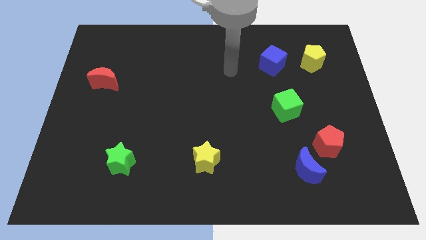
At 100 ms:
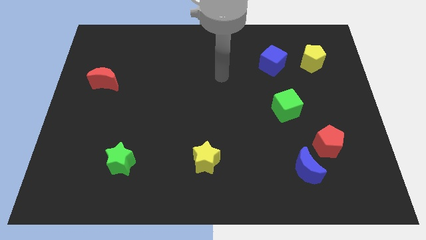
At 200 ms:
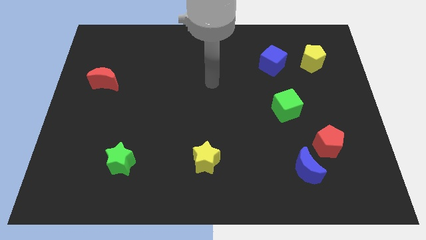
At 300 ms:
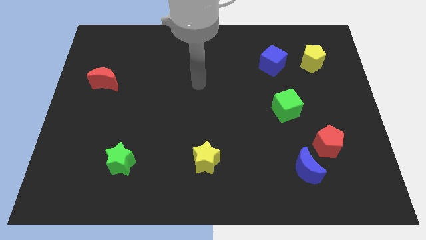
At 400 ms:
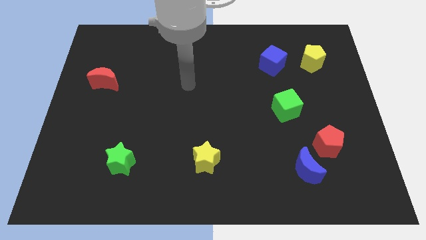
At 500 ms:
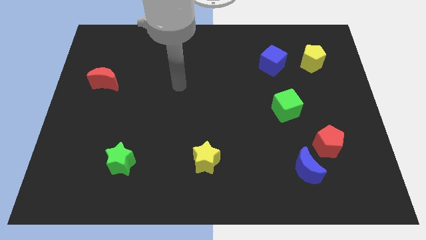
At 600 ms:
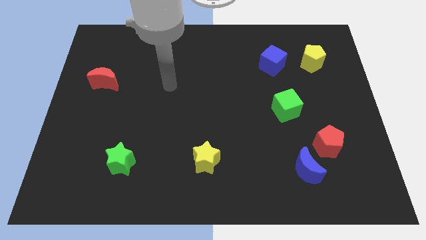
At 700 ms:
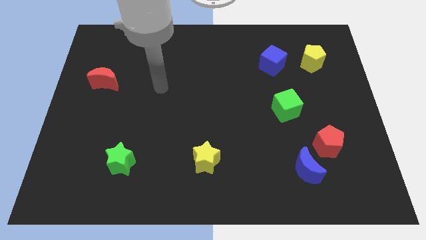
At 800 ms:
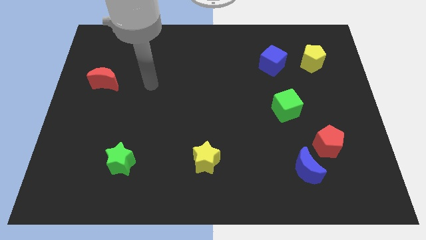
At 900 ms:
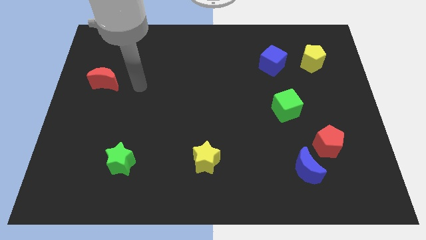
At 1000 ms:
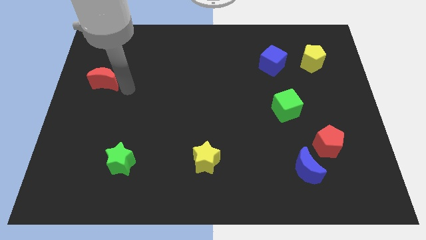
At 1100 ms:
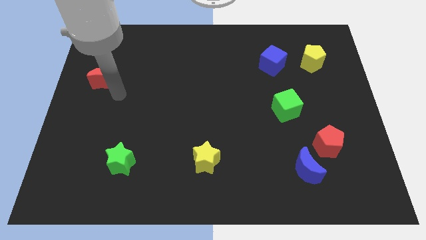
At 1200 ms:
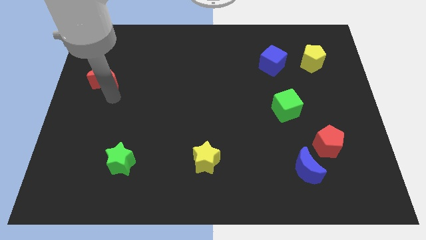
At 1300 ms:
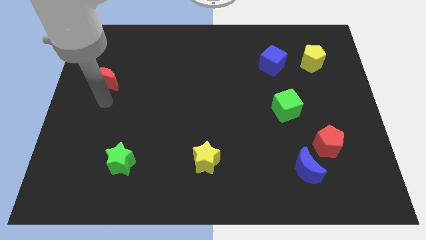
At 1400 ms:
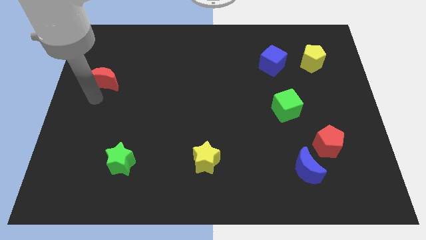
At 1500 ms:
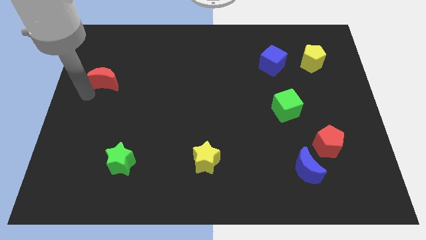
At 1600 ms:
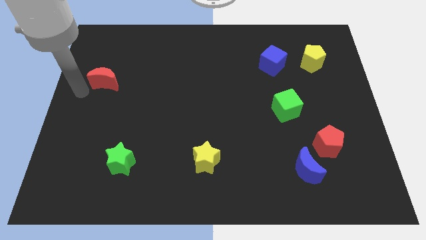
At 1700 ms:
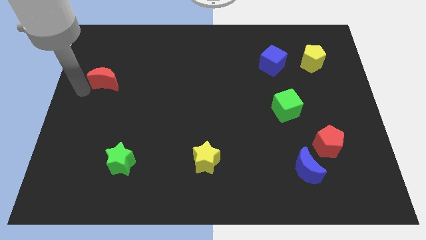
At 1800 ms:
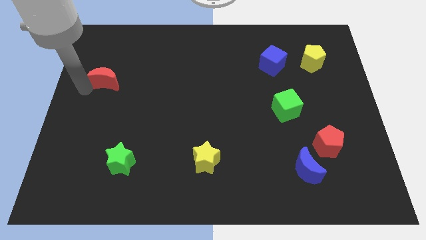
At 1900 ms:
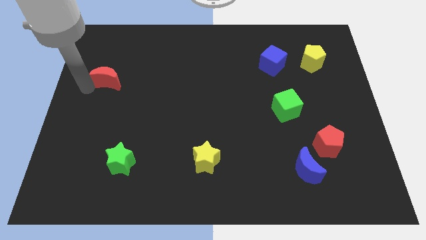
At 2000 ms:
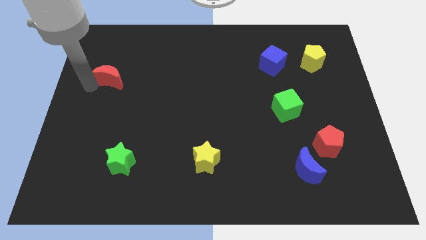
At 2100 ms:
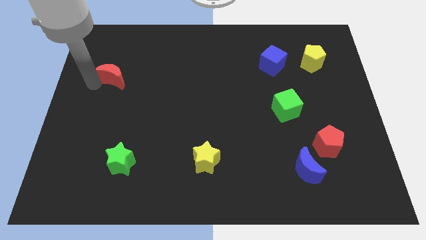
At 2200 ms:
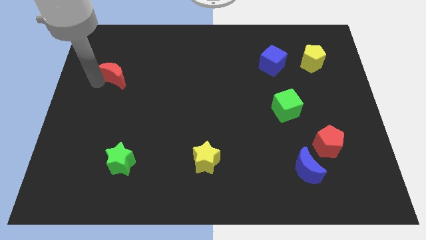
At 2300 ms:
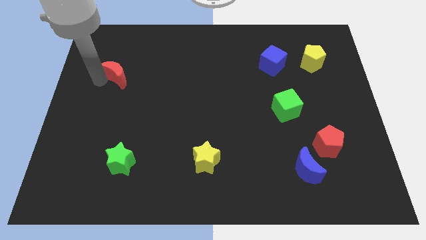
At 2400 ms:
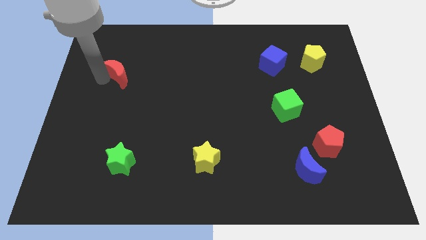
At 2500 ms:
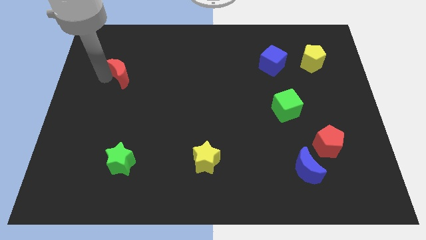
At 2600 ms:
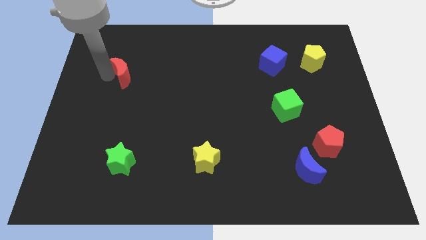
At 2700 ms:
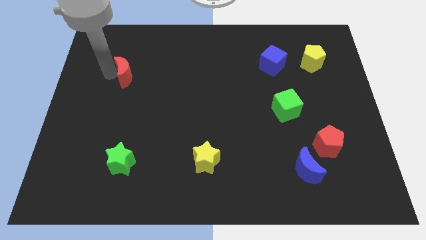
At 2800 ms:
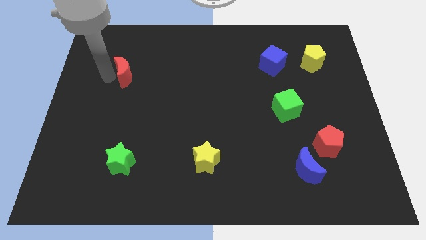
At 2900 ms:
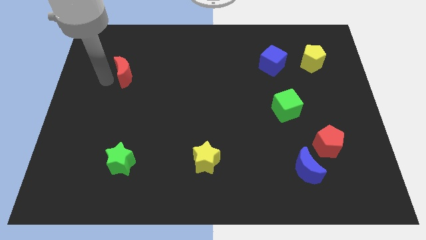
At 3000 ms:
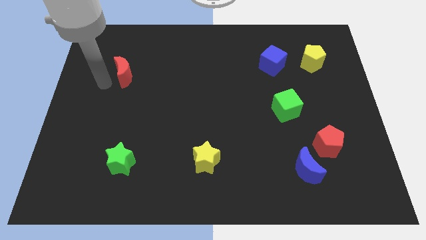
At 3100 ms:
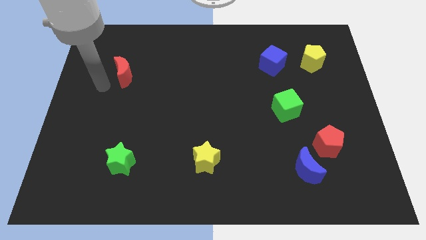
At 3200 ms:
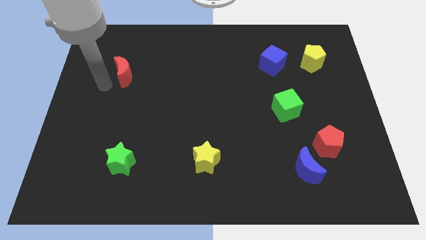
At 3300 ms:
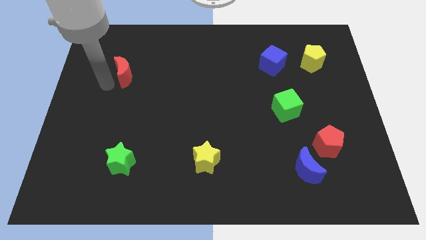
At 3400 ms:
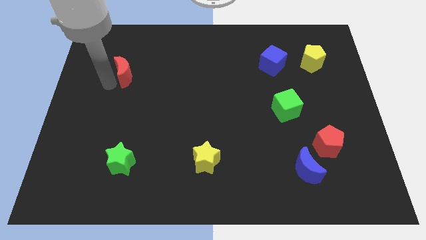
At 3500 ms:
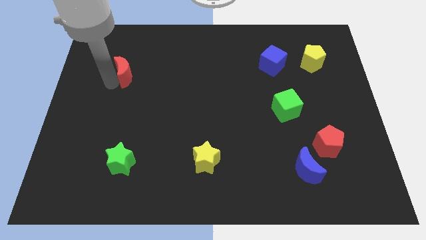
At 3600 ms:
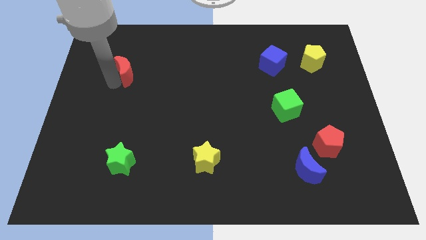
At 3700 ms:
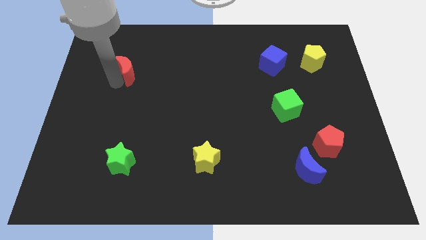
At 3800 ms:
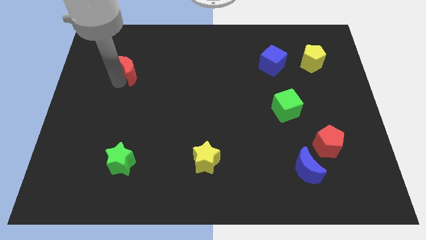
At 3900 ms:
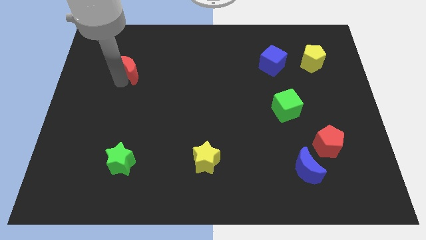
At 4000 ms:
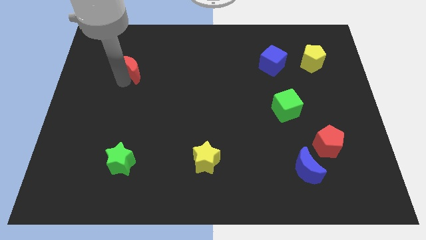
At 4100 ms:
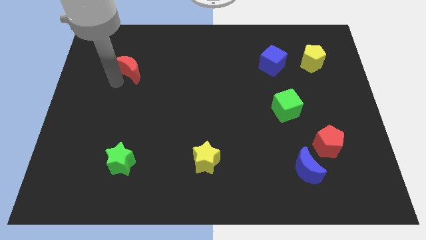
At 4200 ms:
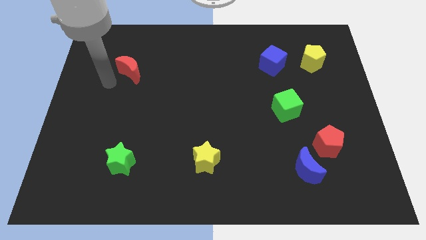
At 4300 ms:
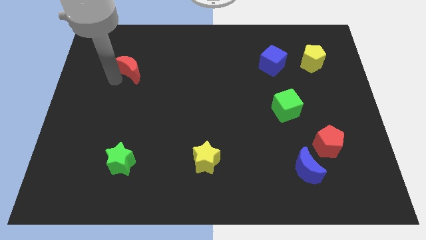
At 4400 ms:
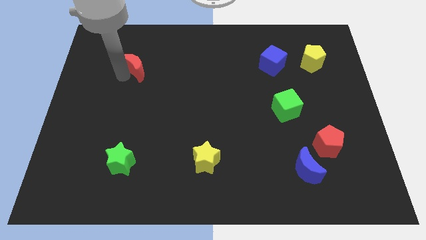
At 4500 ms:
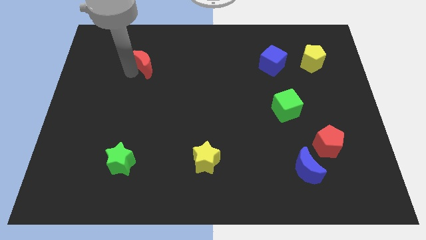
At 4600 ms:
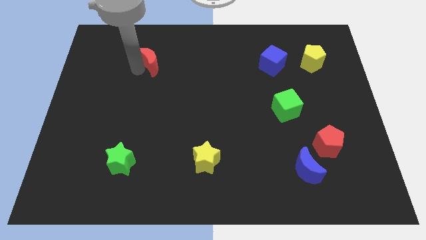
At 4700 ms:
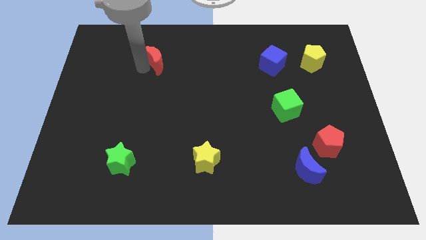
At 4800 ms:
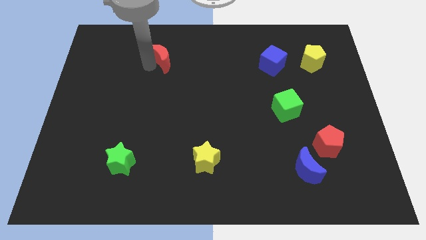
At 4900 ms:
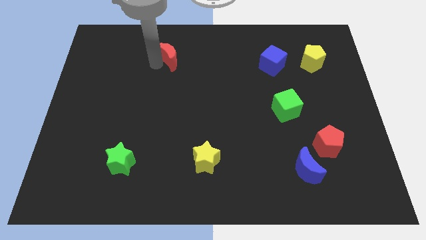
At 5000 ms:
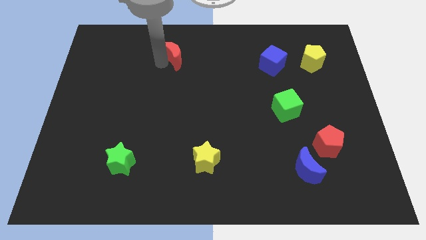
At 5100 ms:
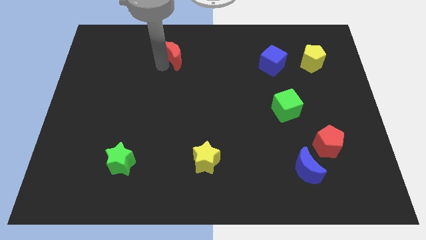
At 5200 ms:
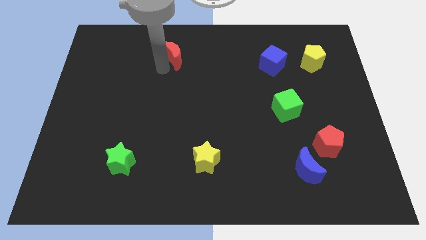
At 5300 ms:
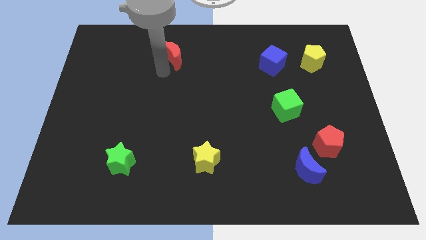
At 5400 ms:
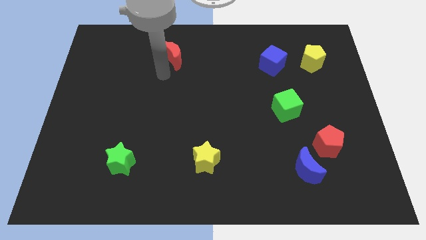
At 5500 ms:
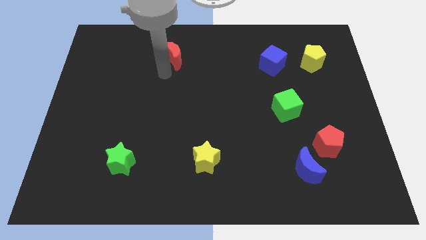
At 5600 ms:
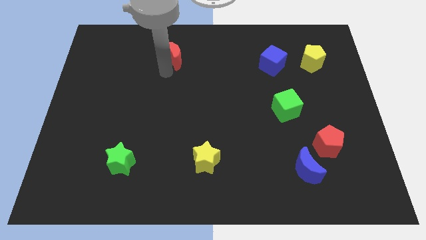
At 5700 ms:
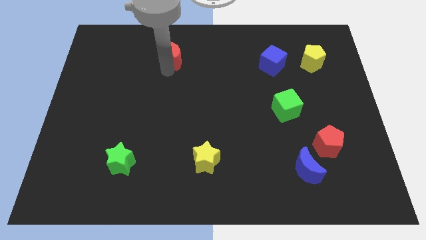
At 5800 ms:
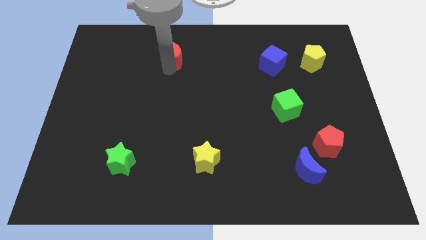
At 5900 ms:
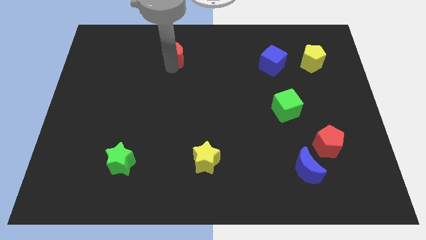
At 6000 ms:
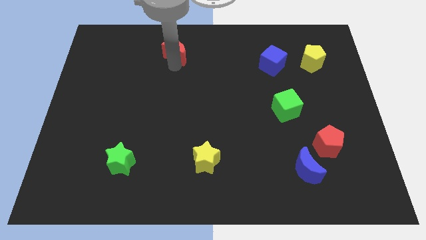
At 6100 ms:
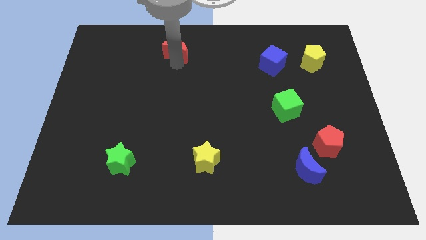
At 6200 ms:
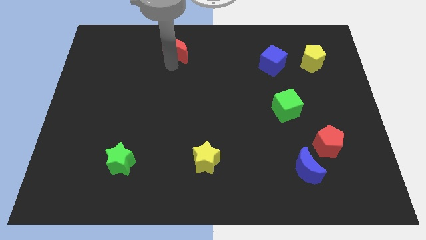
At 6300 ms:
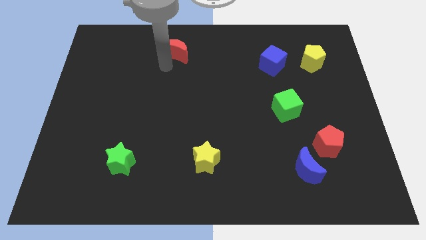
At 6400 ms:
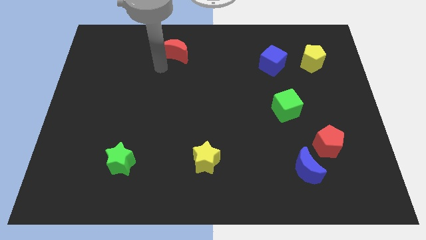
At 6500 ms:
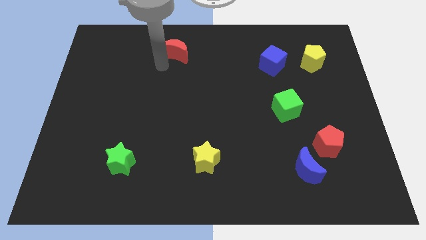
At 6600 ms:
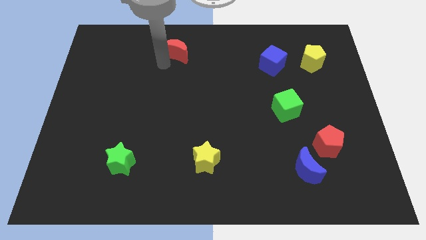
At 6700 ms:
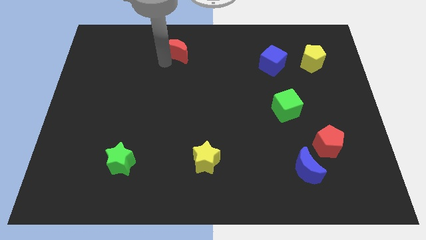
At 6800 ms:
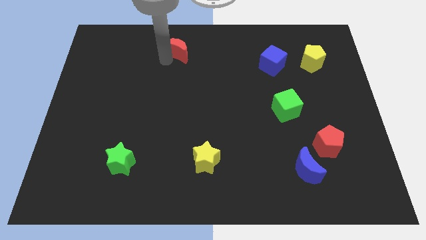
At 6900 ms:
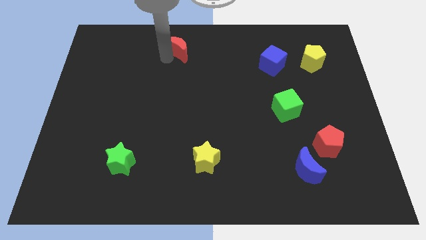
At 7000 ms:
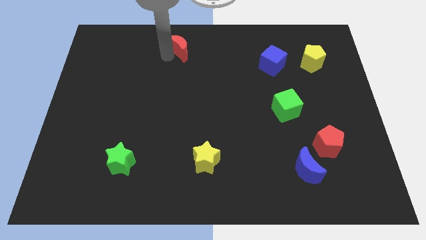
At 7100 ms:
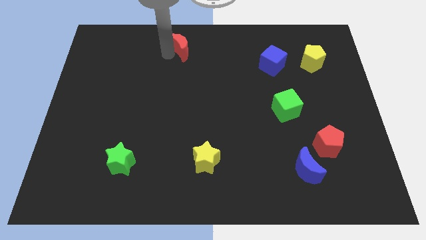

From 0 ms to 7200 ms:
put the red moon to the top

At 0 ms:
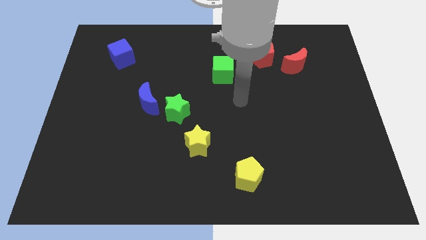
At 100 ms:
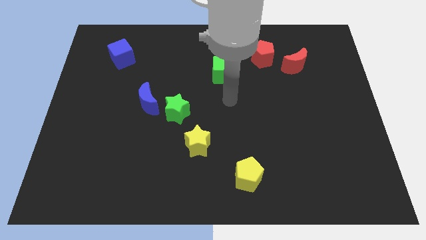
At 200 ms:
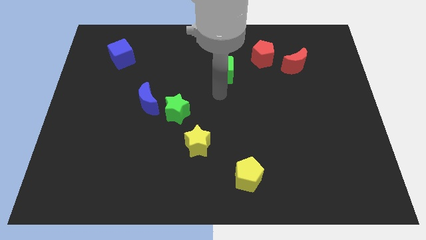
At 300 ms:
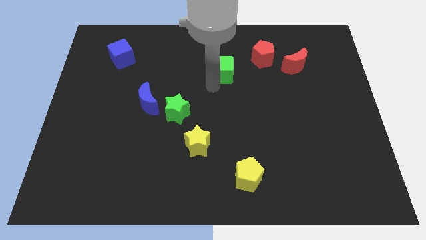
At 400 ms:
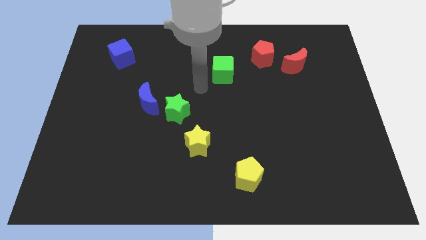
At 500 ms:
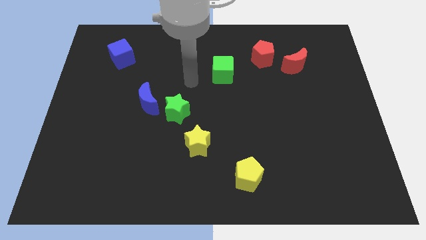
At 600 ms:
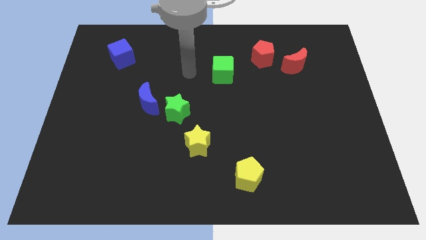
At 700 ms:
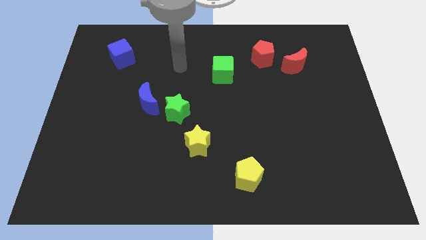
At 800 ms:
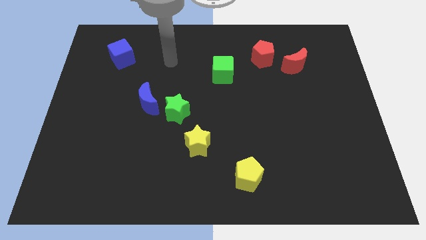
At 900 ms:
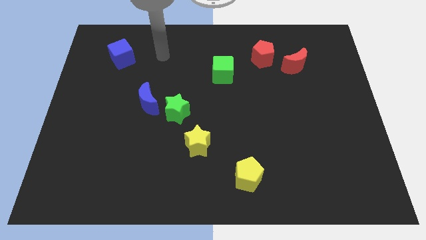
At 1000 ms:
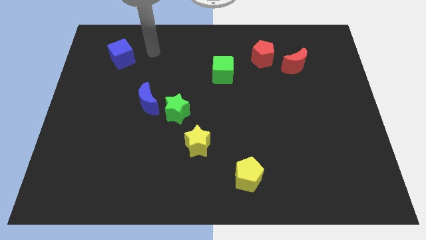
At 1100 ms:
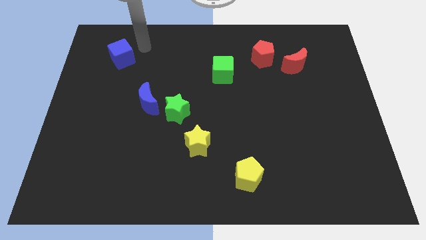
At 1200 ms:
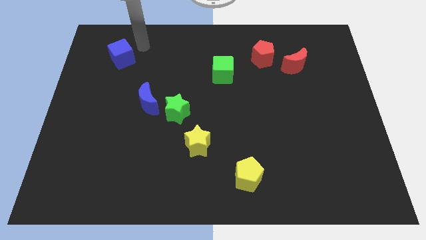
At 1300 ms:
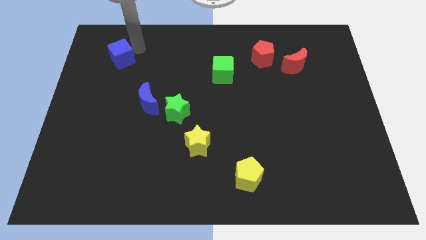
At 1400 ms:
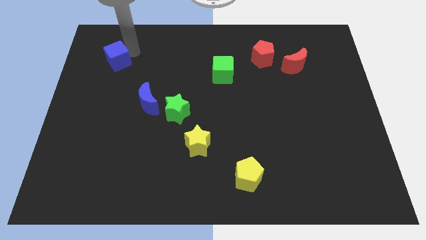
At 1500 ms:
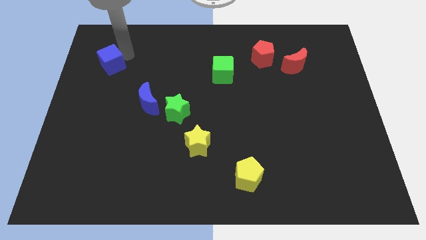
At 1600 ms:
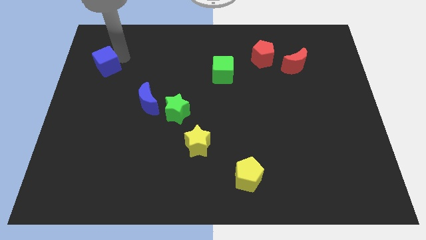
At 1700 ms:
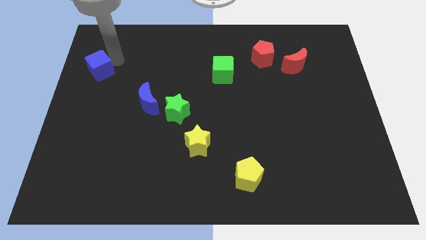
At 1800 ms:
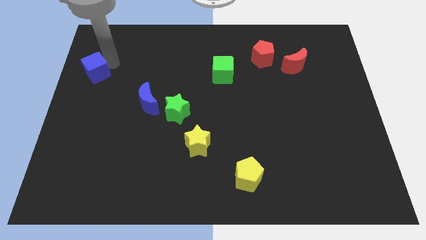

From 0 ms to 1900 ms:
move the blue cube to the left side
